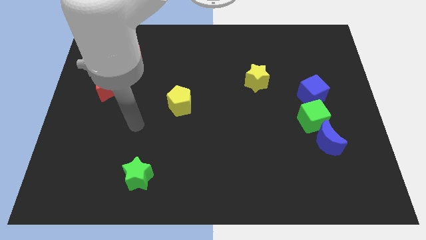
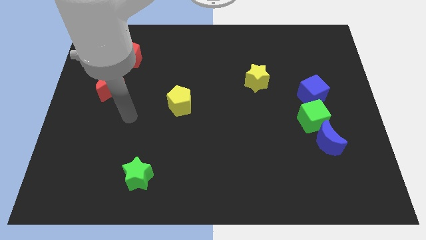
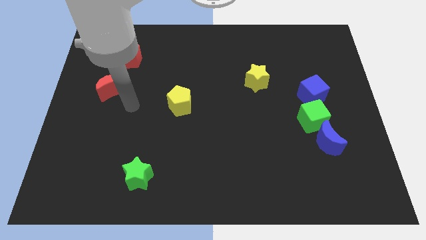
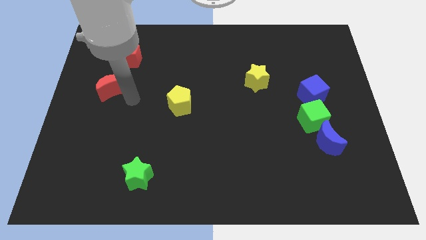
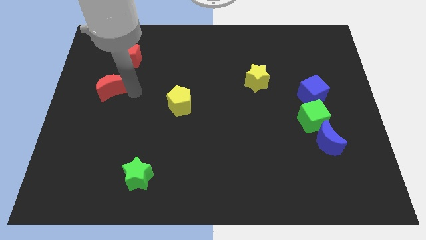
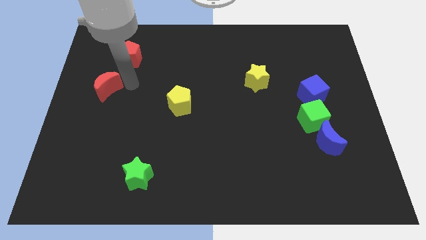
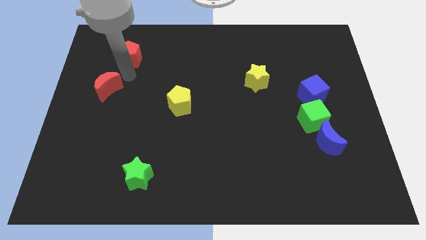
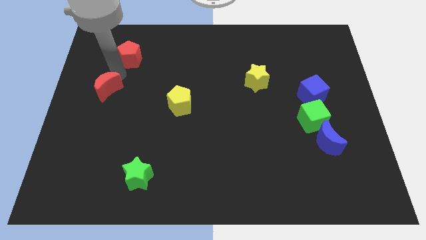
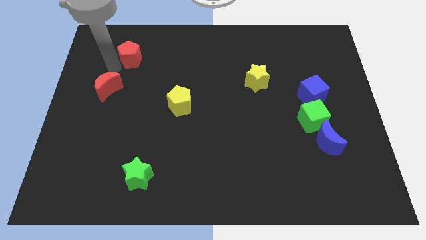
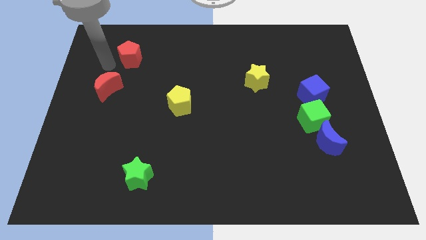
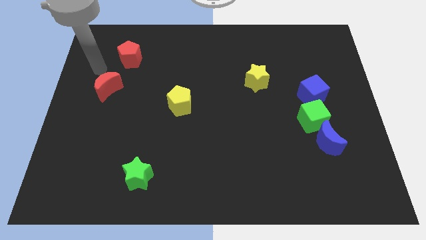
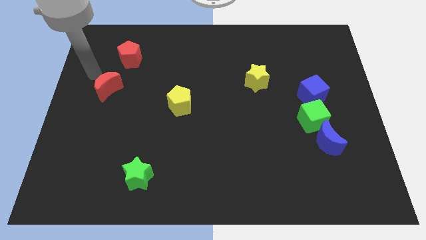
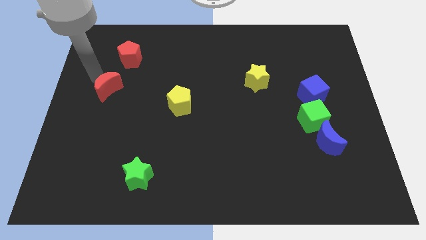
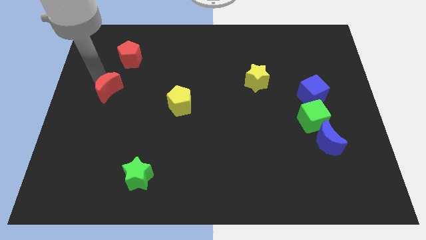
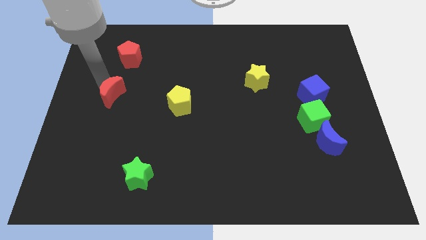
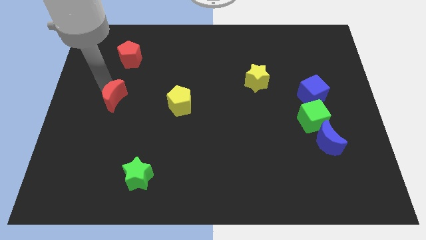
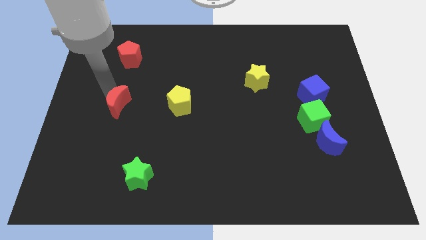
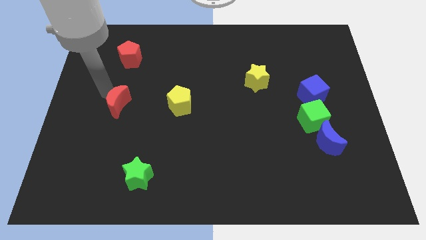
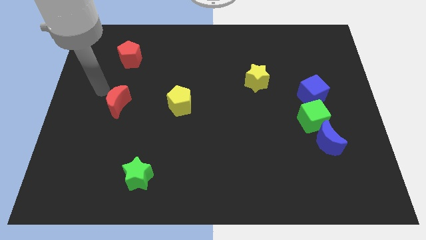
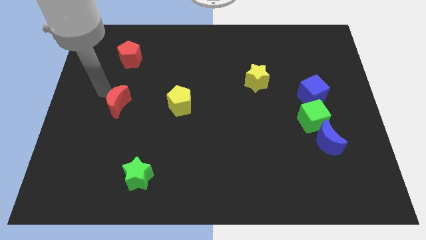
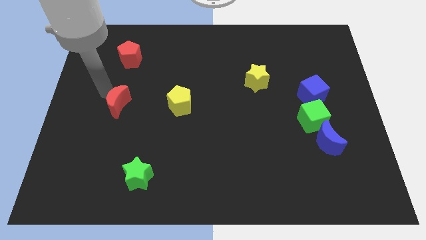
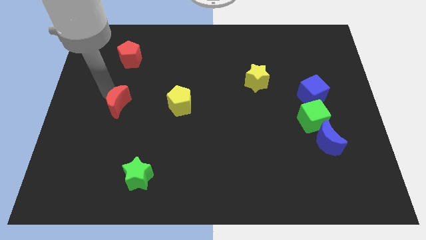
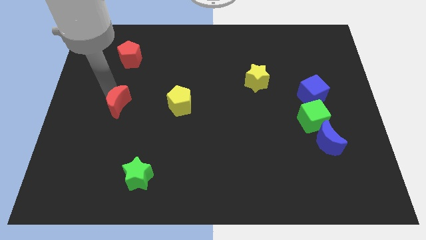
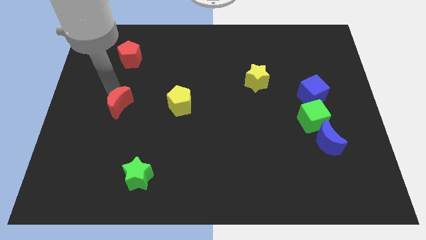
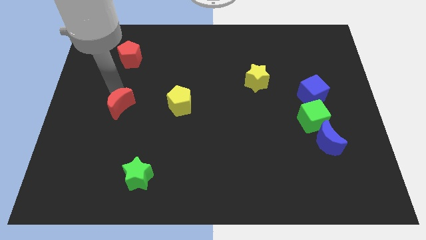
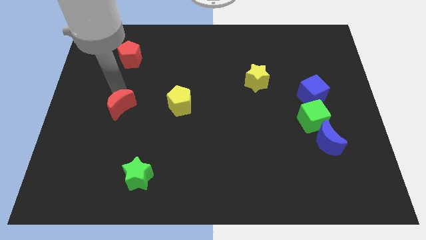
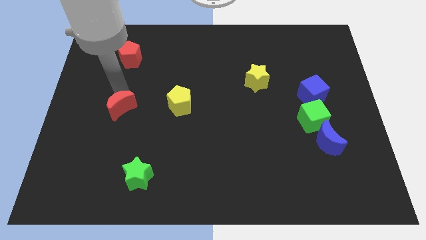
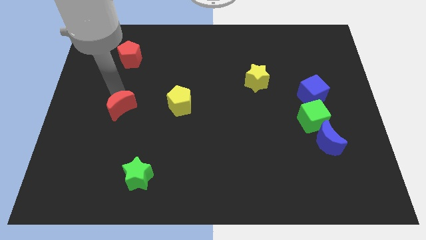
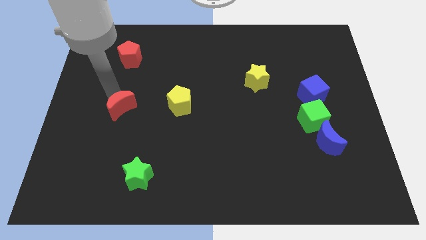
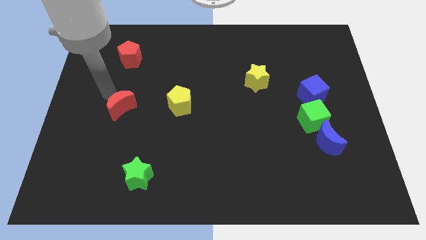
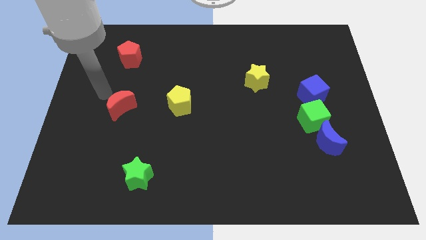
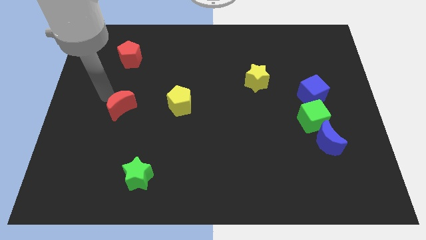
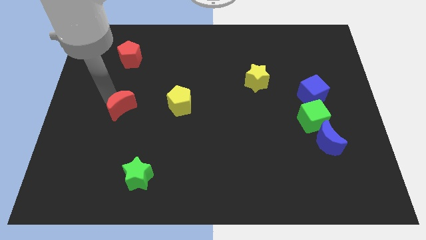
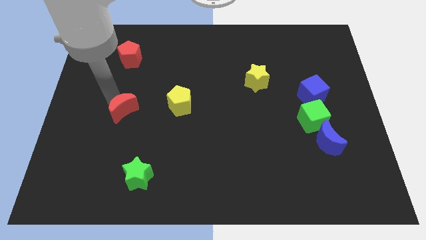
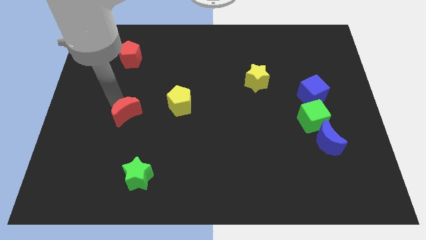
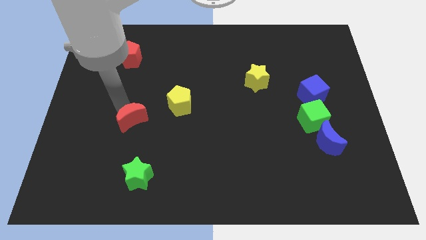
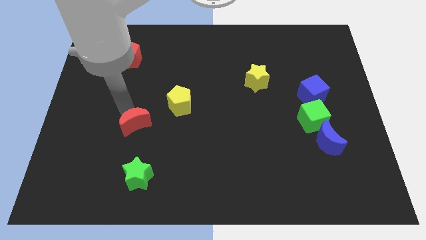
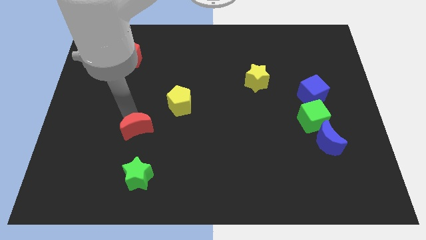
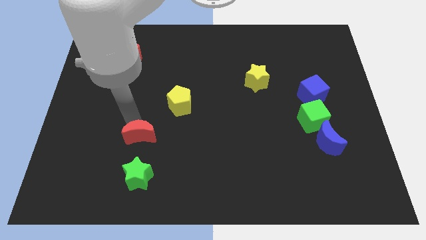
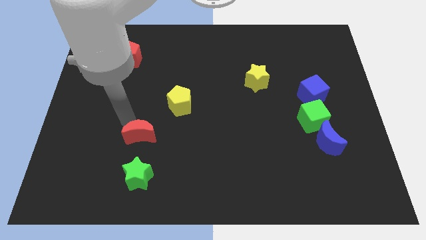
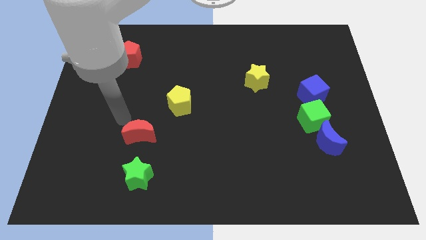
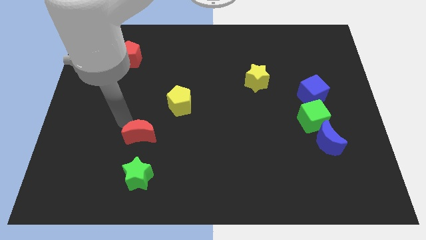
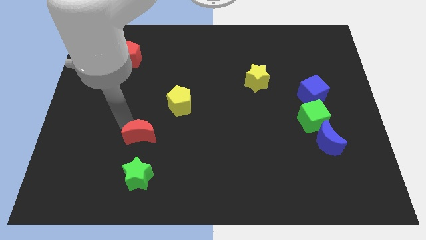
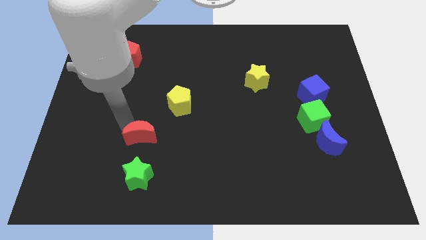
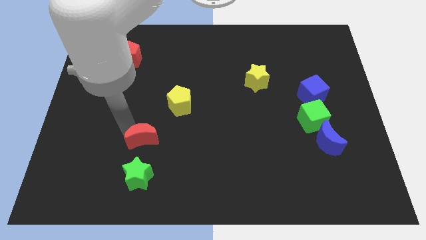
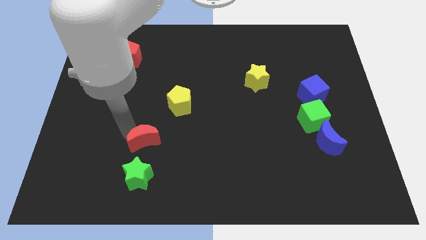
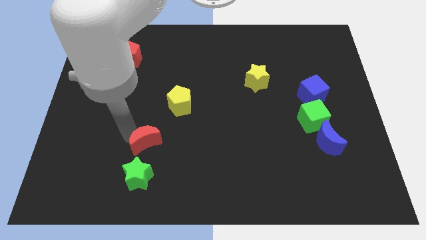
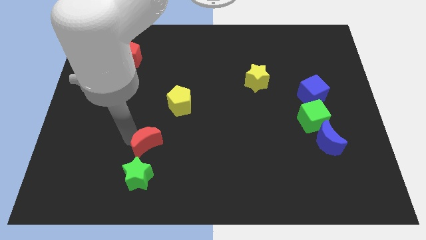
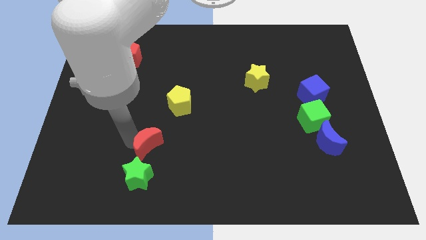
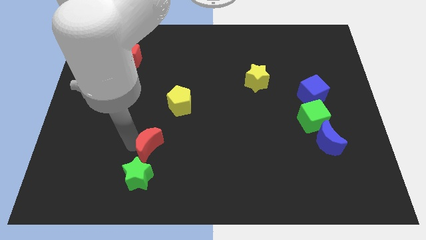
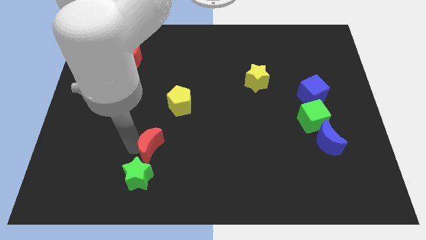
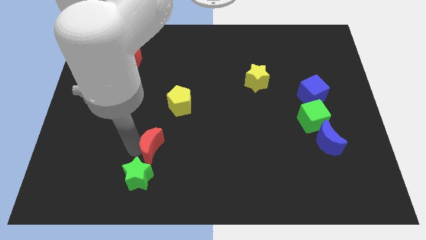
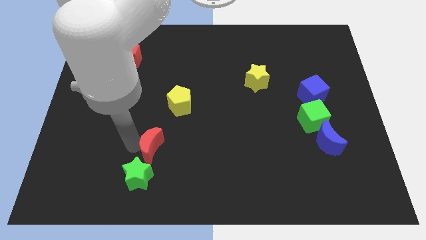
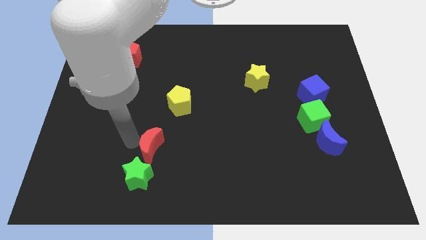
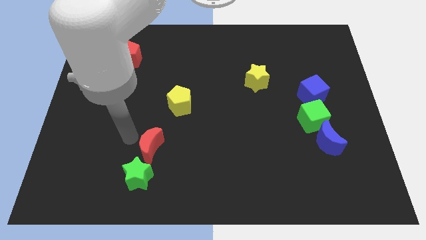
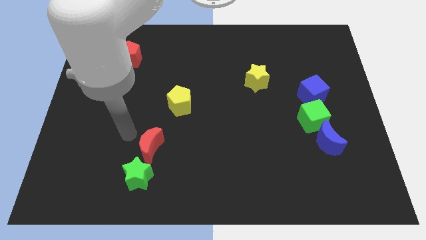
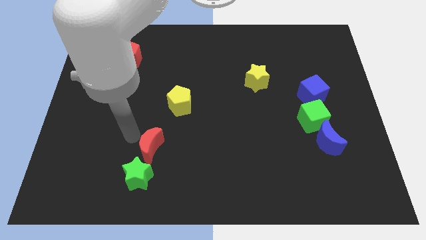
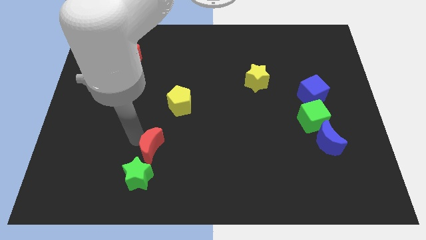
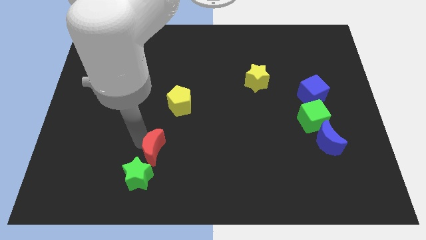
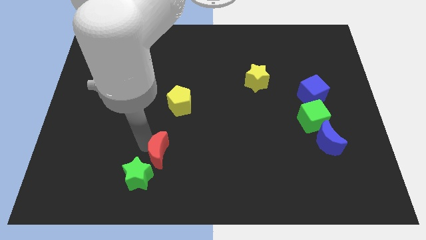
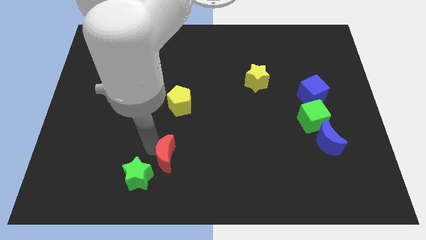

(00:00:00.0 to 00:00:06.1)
put the red moon to the right side of the green star

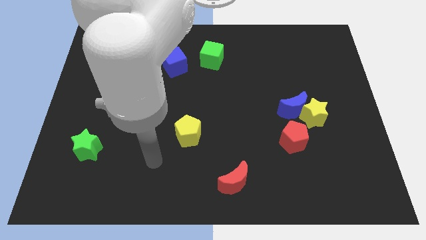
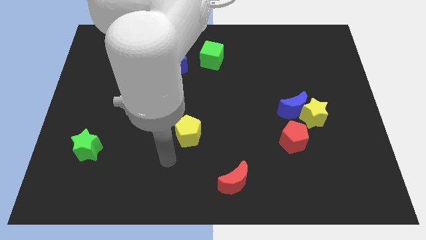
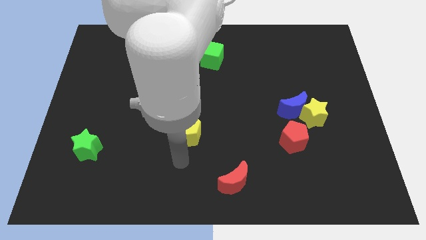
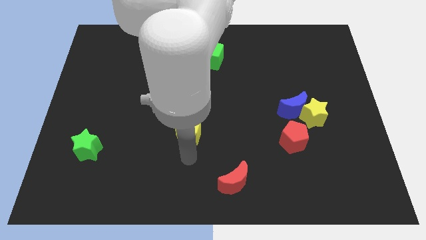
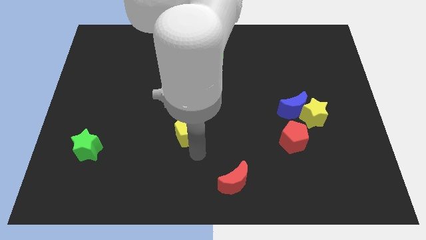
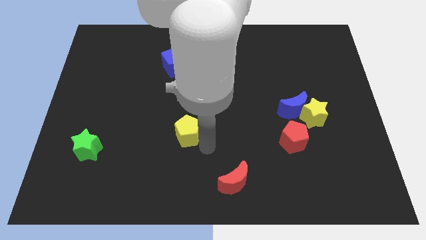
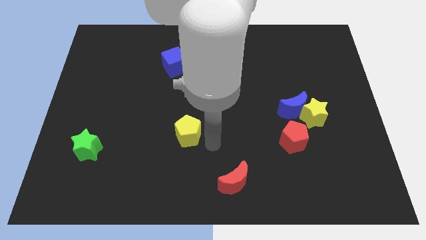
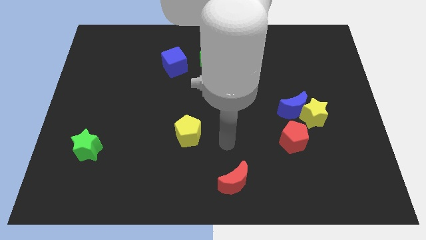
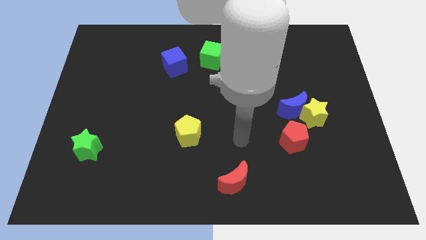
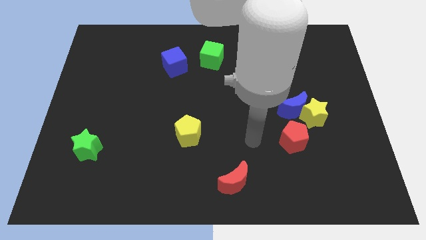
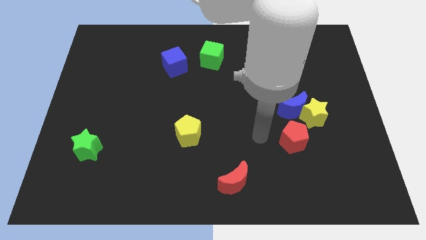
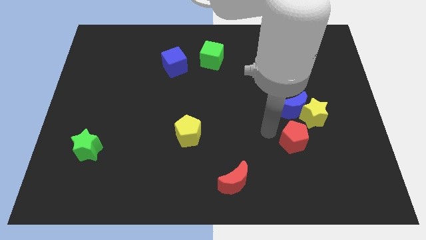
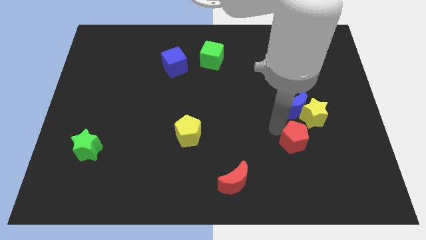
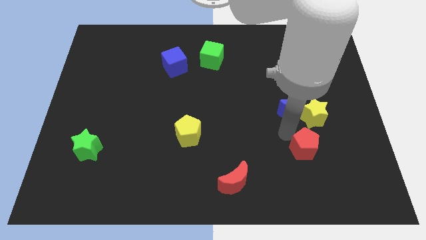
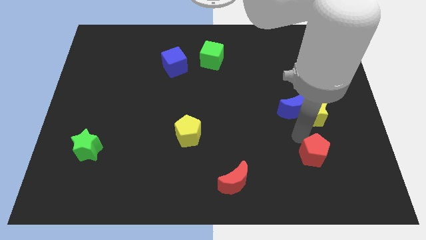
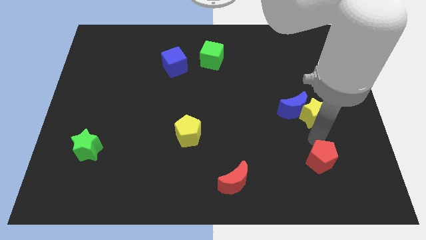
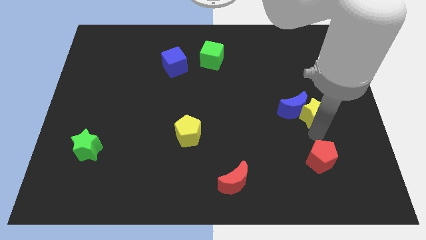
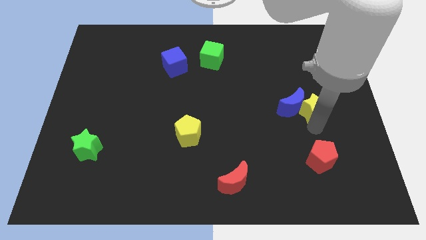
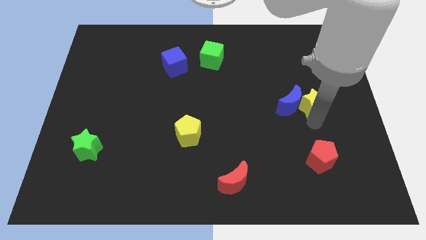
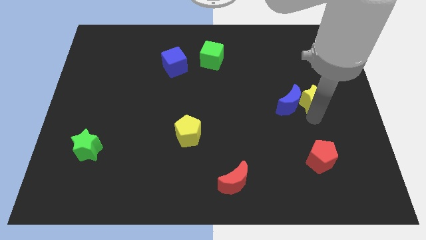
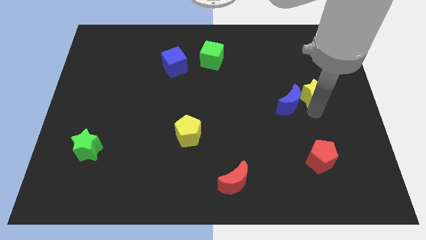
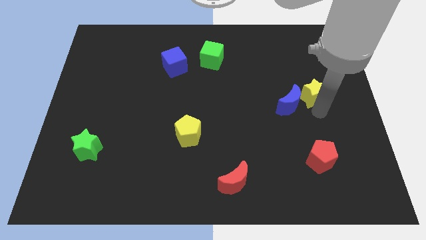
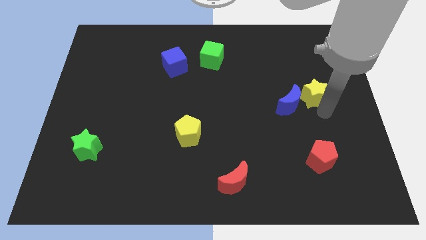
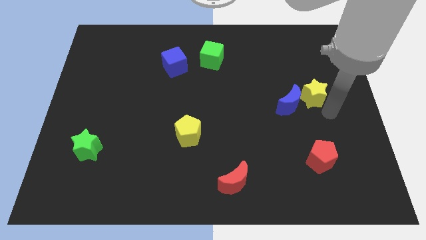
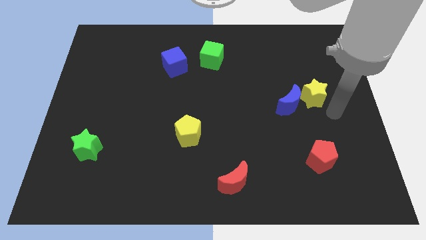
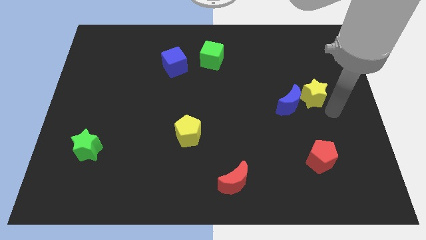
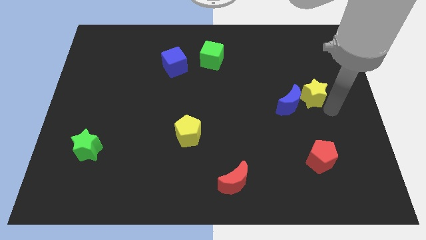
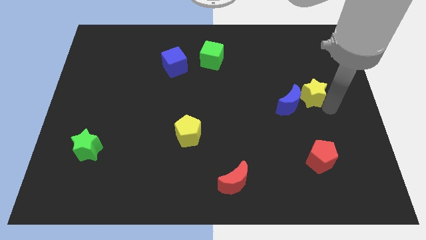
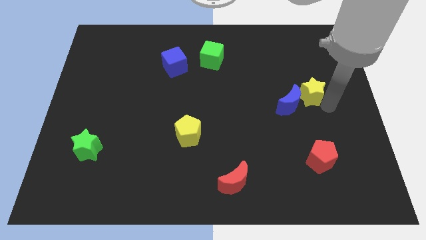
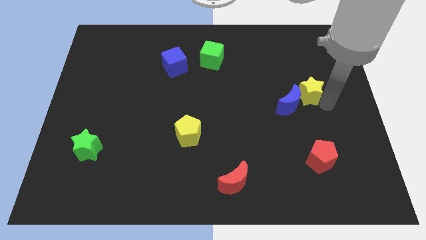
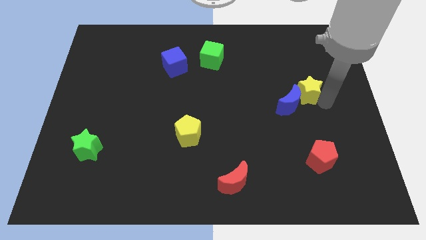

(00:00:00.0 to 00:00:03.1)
move the yellow star above the blue moon
